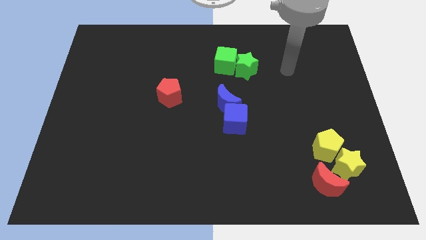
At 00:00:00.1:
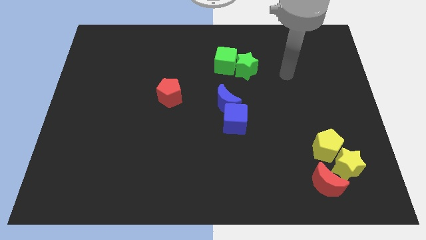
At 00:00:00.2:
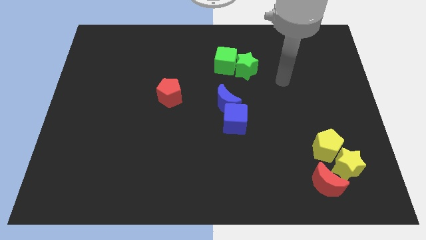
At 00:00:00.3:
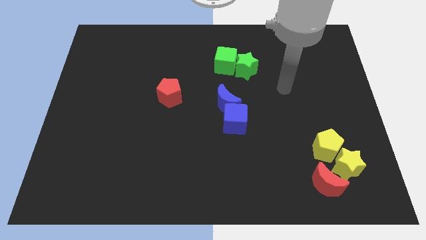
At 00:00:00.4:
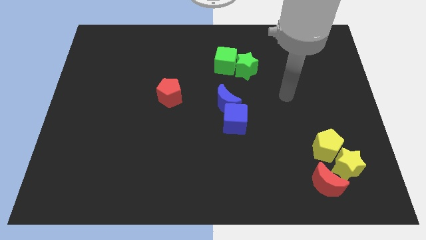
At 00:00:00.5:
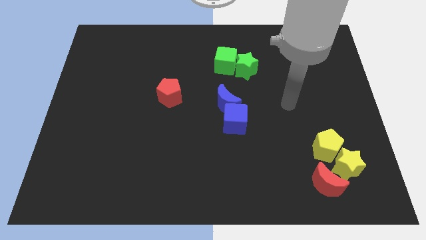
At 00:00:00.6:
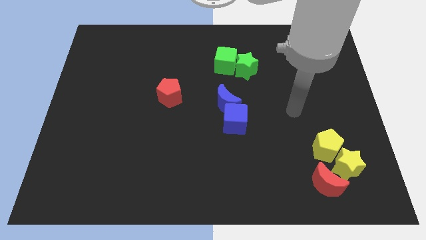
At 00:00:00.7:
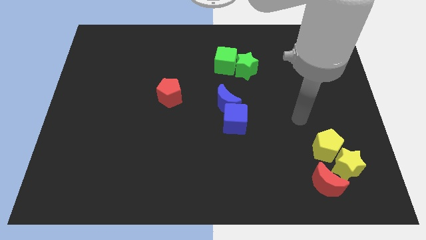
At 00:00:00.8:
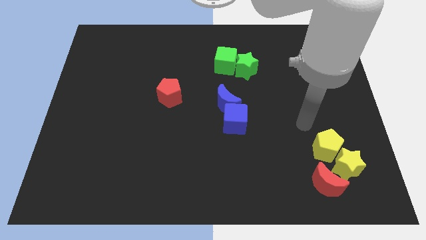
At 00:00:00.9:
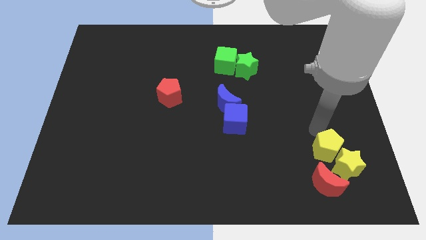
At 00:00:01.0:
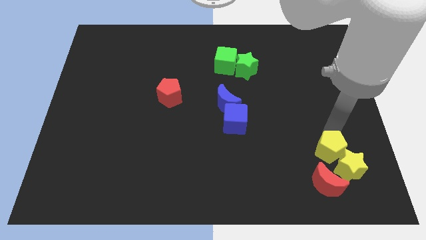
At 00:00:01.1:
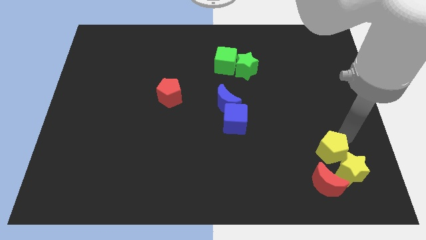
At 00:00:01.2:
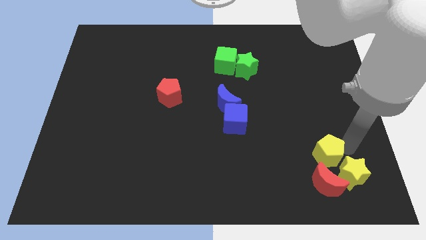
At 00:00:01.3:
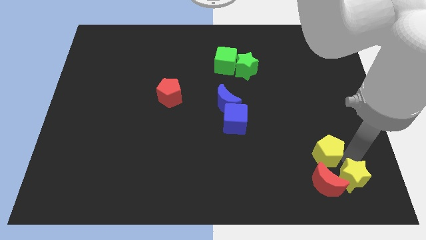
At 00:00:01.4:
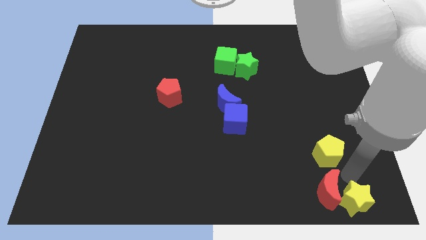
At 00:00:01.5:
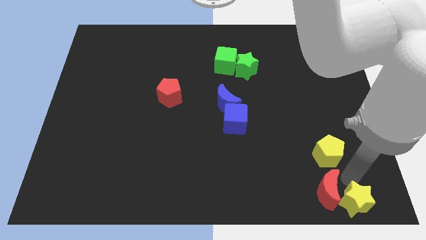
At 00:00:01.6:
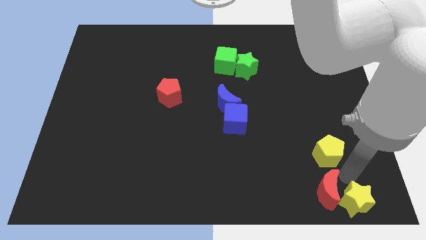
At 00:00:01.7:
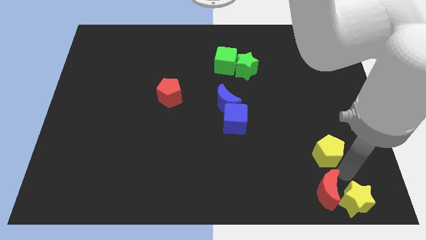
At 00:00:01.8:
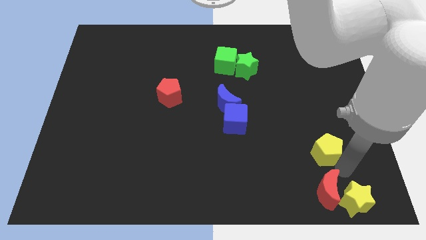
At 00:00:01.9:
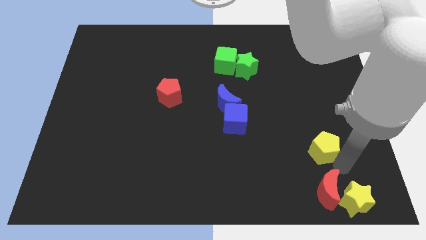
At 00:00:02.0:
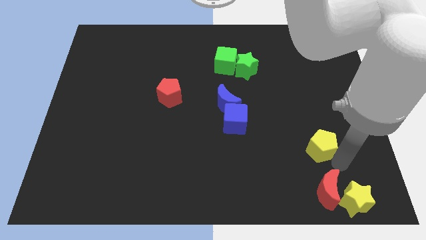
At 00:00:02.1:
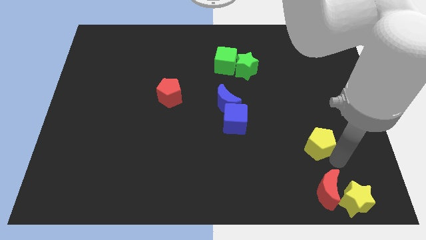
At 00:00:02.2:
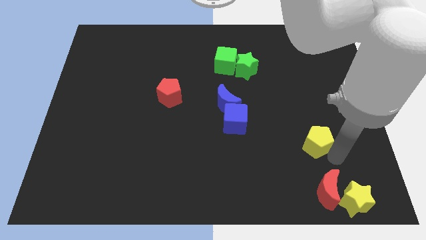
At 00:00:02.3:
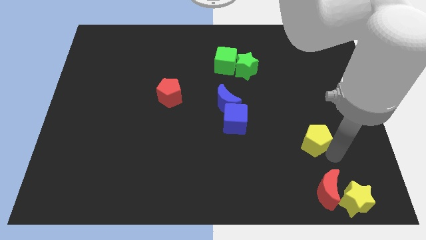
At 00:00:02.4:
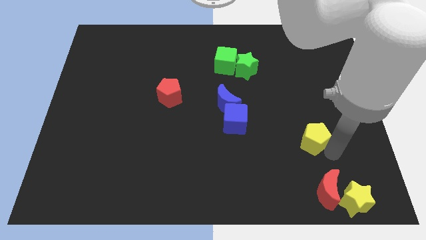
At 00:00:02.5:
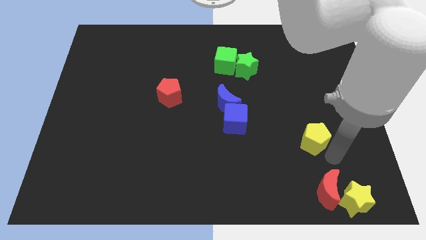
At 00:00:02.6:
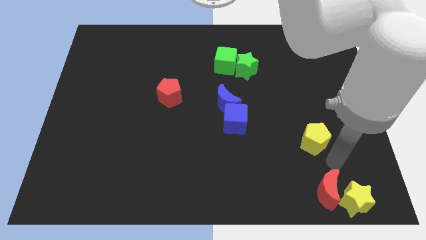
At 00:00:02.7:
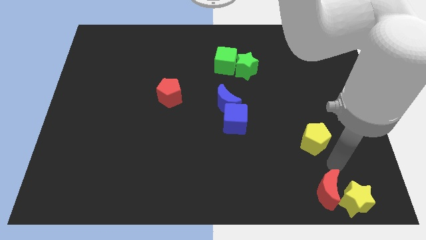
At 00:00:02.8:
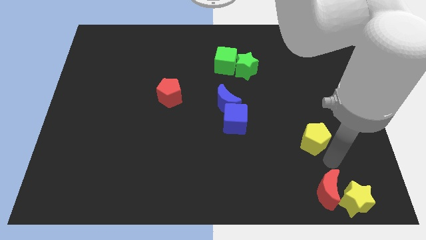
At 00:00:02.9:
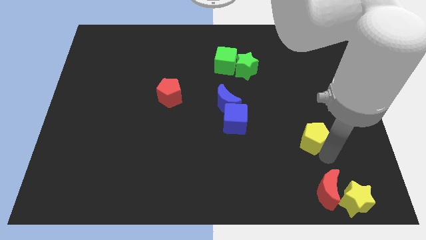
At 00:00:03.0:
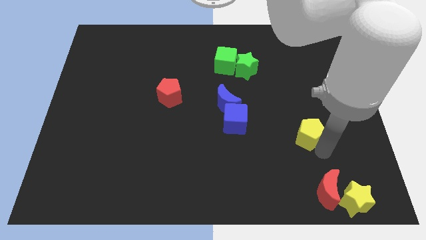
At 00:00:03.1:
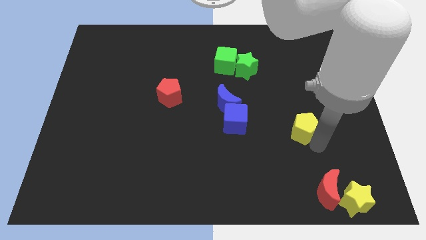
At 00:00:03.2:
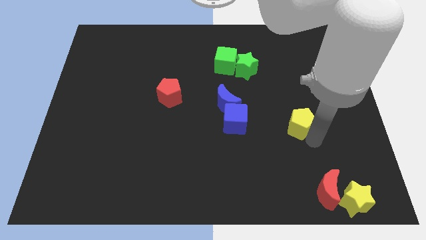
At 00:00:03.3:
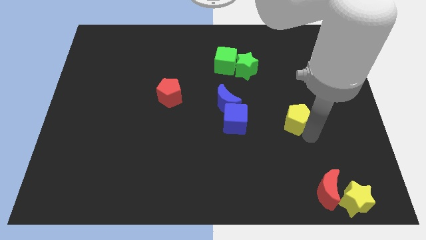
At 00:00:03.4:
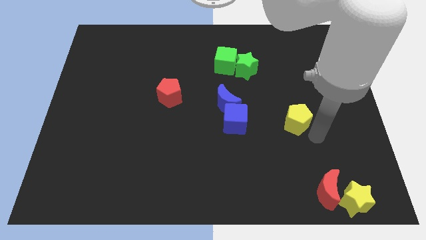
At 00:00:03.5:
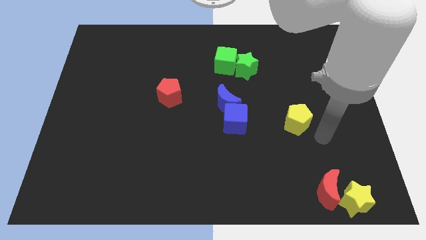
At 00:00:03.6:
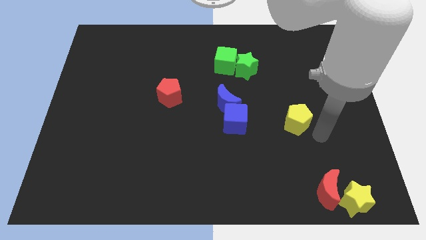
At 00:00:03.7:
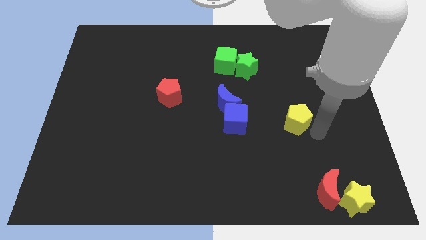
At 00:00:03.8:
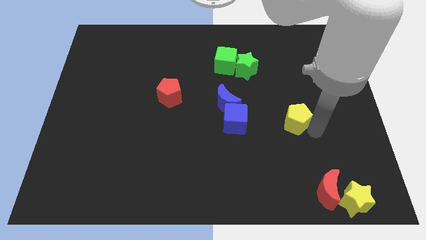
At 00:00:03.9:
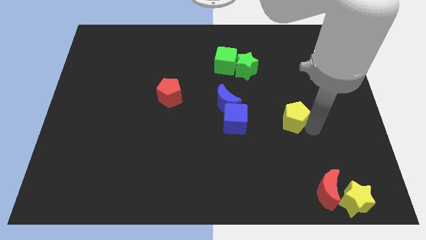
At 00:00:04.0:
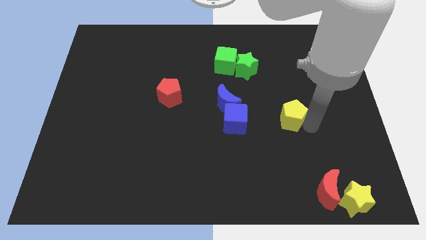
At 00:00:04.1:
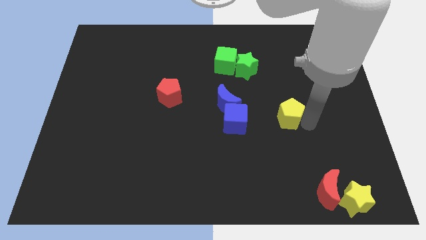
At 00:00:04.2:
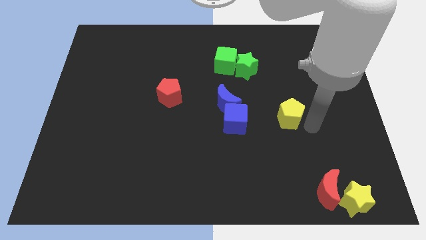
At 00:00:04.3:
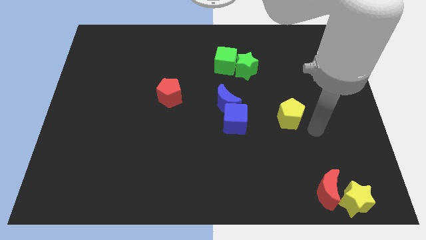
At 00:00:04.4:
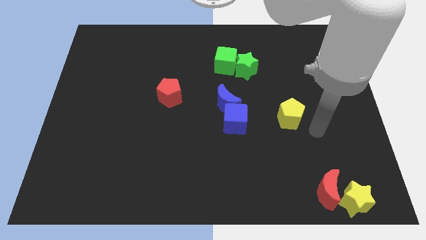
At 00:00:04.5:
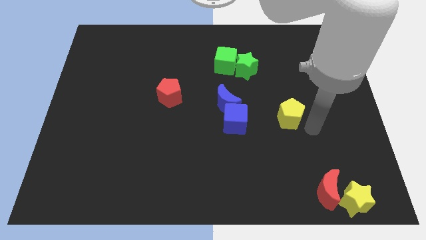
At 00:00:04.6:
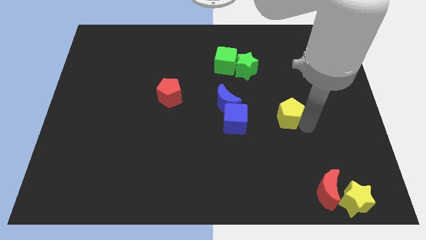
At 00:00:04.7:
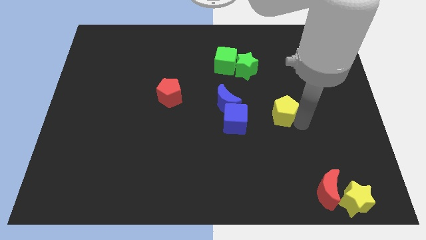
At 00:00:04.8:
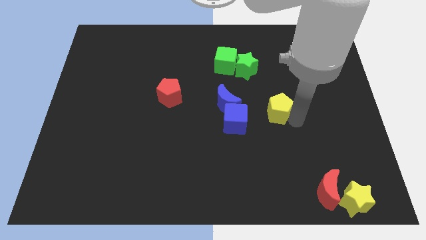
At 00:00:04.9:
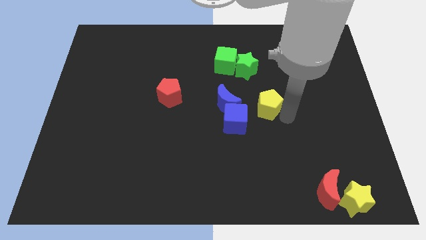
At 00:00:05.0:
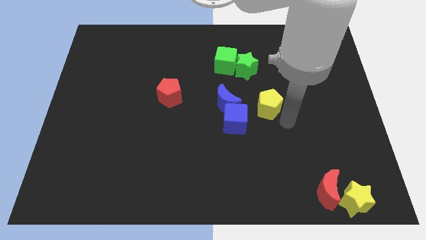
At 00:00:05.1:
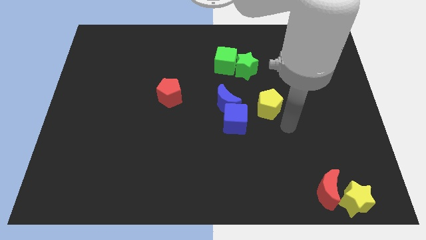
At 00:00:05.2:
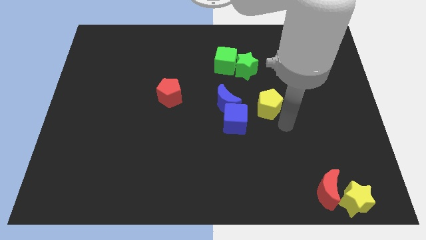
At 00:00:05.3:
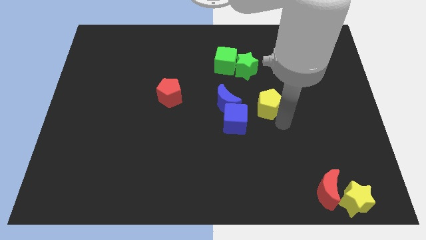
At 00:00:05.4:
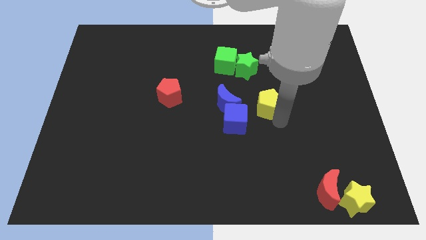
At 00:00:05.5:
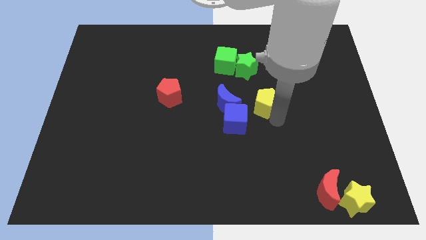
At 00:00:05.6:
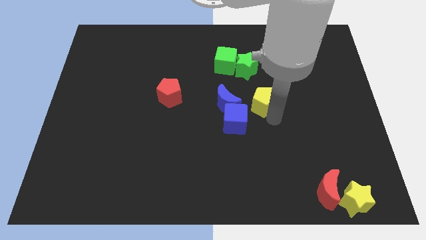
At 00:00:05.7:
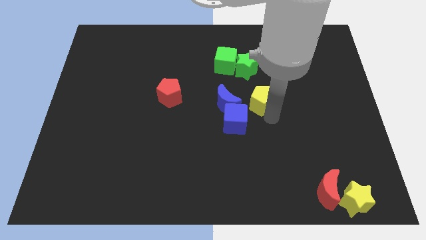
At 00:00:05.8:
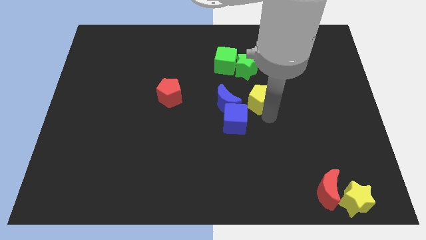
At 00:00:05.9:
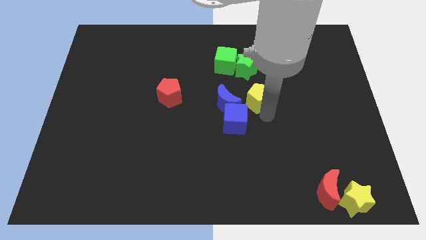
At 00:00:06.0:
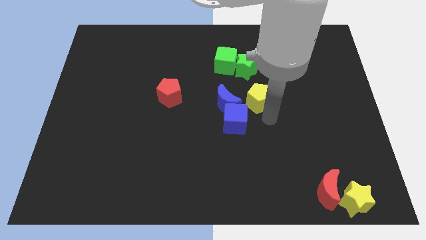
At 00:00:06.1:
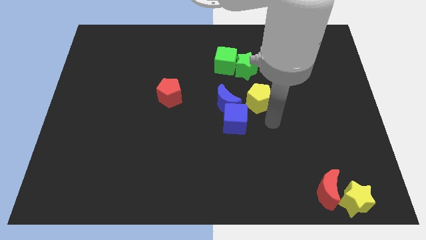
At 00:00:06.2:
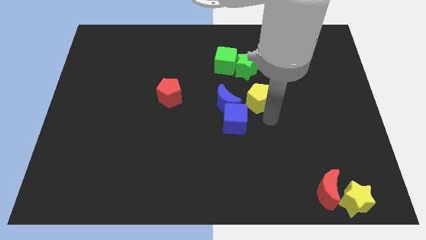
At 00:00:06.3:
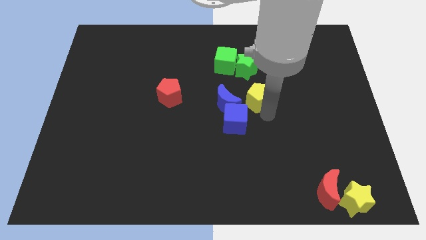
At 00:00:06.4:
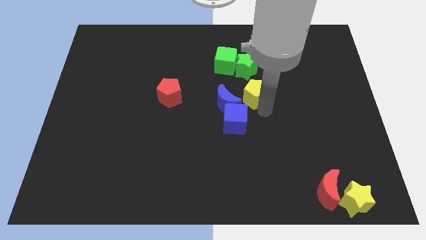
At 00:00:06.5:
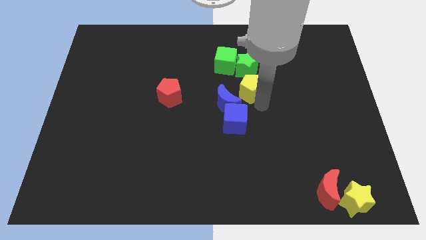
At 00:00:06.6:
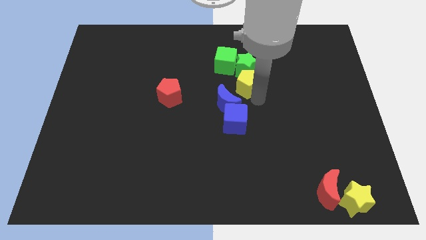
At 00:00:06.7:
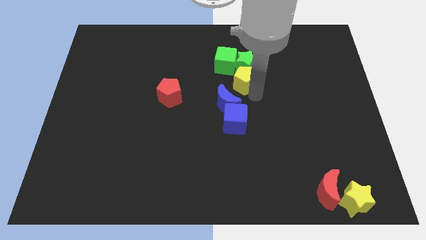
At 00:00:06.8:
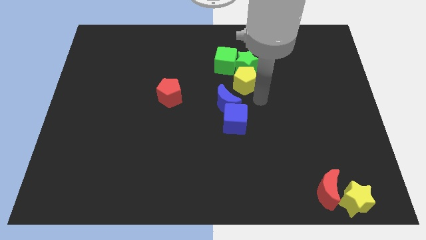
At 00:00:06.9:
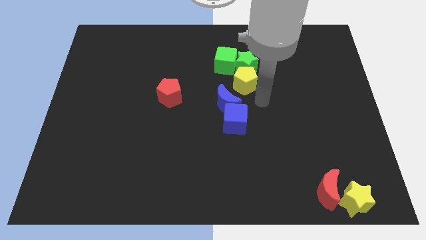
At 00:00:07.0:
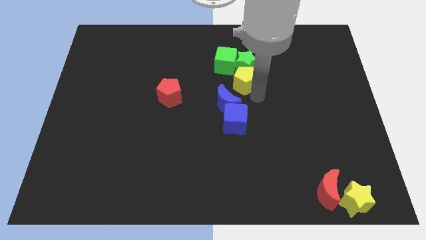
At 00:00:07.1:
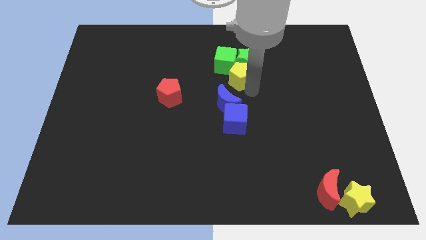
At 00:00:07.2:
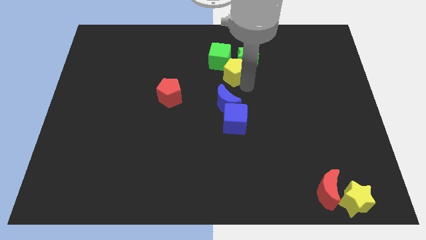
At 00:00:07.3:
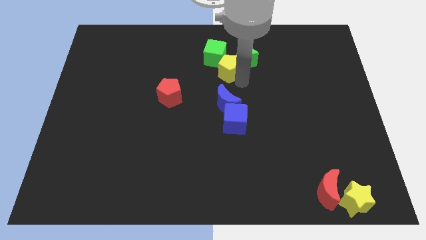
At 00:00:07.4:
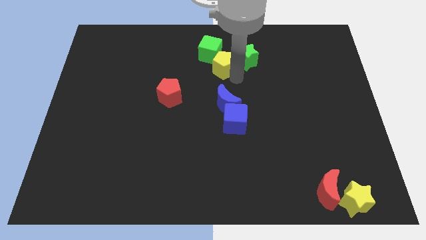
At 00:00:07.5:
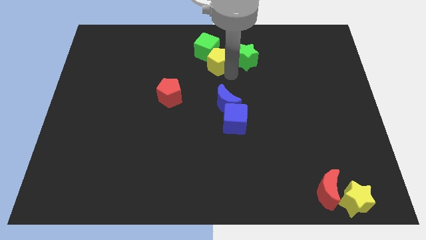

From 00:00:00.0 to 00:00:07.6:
put the yellow pentagon next to the green cube
